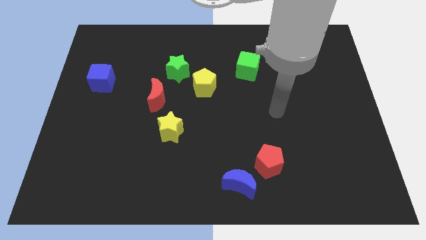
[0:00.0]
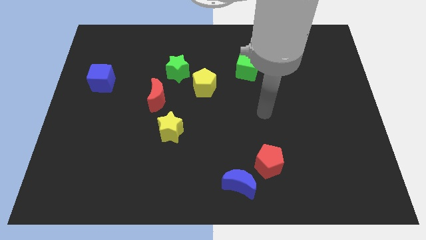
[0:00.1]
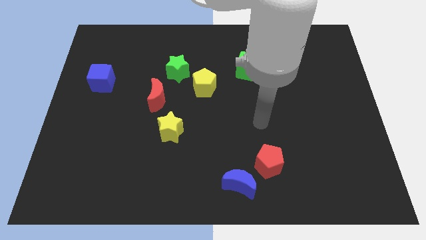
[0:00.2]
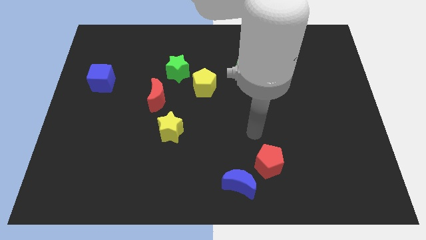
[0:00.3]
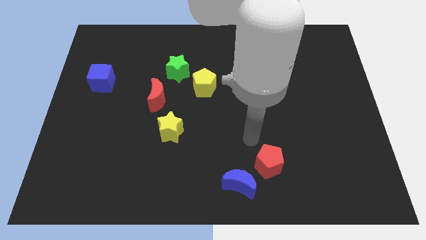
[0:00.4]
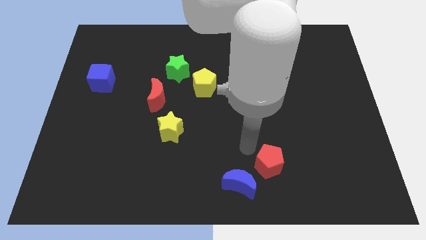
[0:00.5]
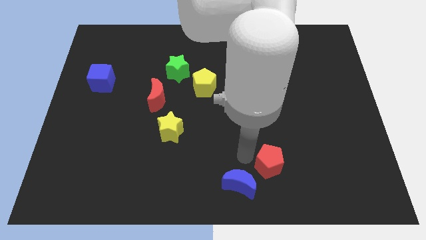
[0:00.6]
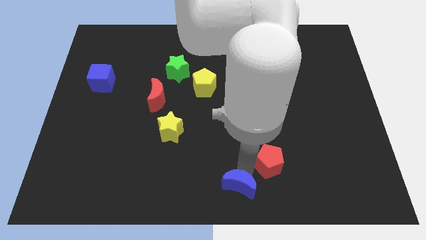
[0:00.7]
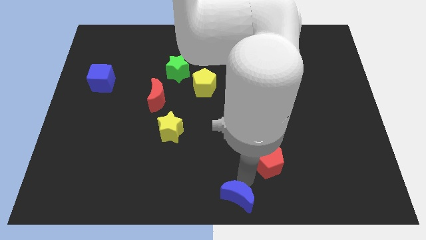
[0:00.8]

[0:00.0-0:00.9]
move the red pentagon away from the blue moon

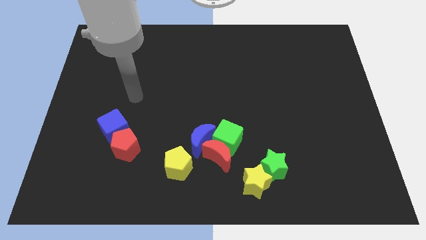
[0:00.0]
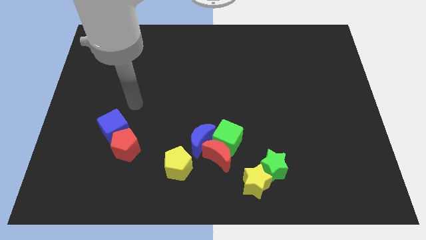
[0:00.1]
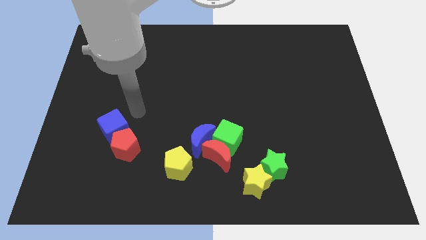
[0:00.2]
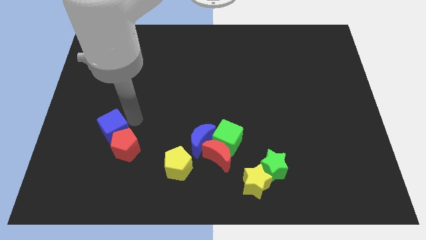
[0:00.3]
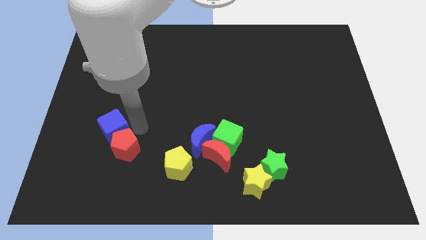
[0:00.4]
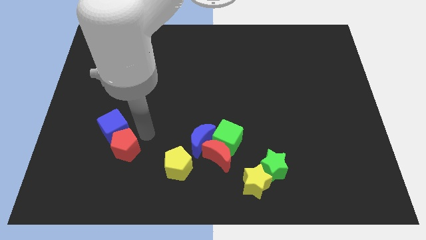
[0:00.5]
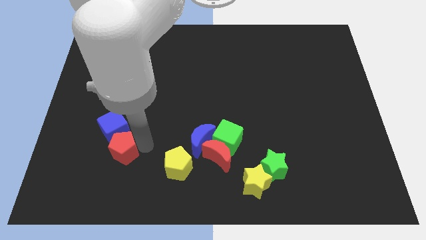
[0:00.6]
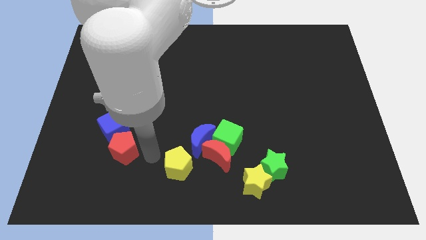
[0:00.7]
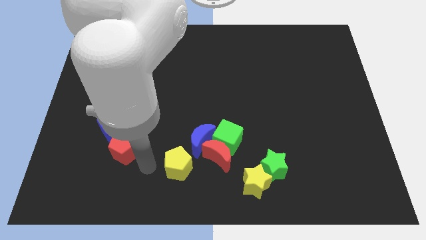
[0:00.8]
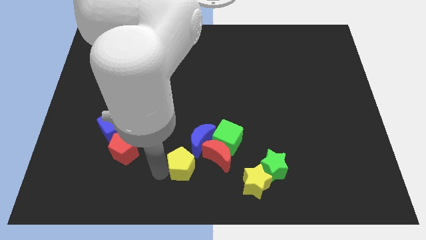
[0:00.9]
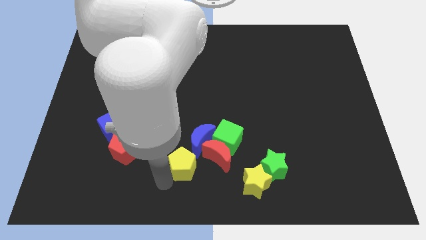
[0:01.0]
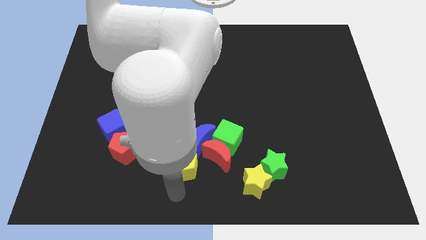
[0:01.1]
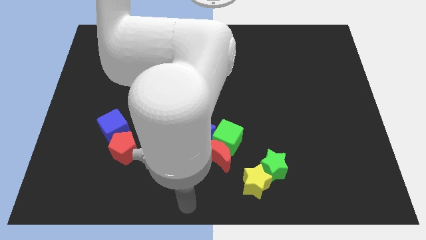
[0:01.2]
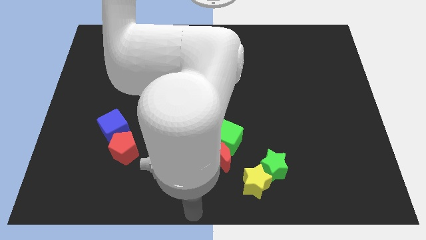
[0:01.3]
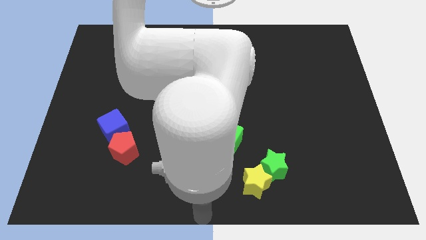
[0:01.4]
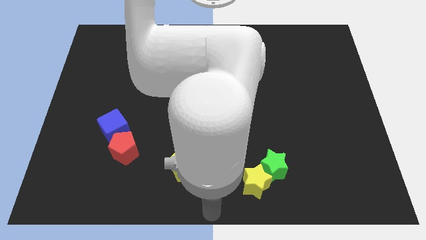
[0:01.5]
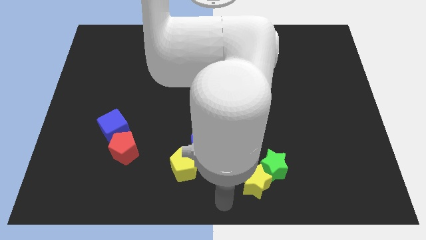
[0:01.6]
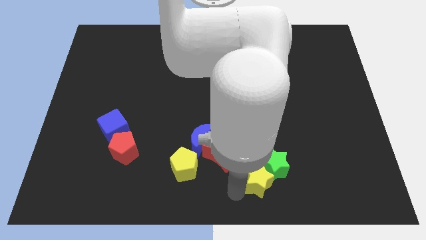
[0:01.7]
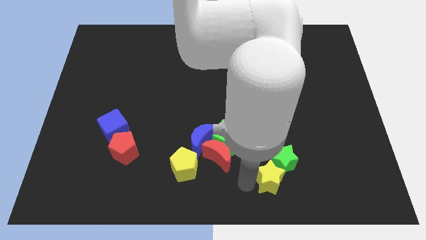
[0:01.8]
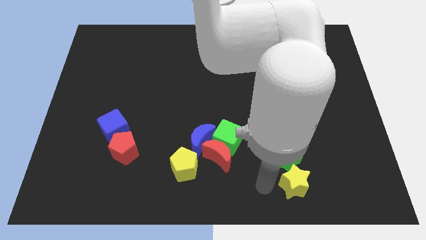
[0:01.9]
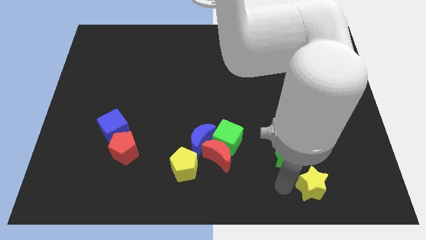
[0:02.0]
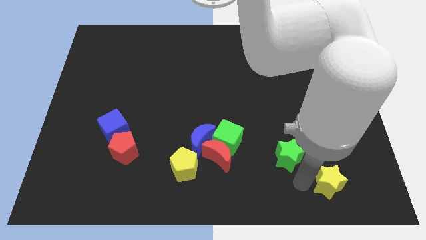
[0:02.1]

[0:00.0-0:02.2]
pull the green star apart from the yellow star

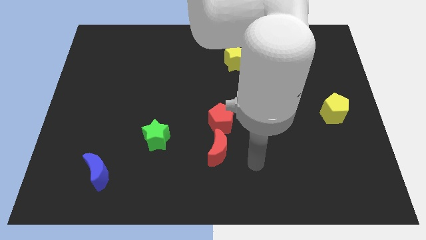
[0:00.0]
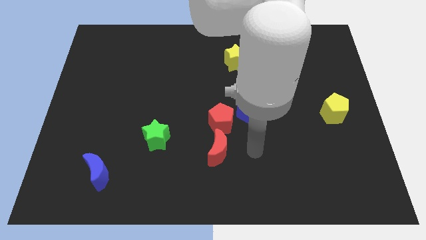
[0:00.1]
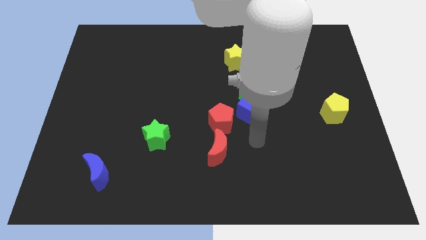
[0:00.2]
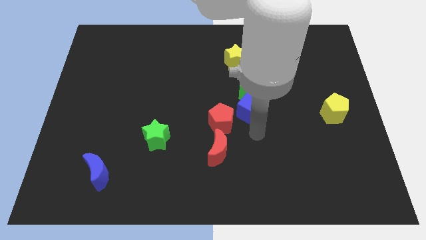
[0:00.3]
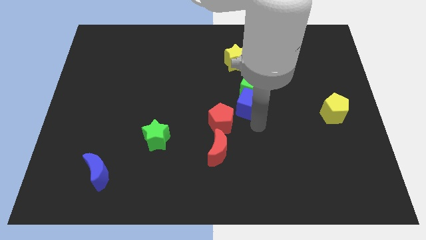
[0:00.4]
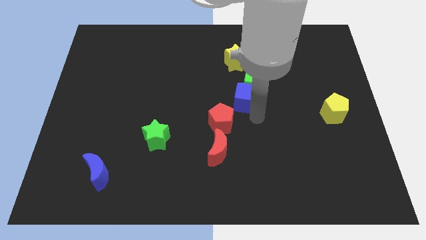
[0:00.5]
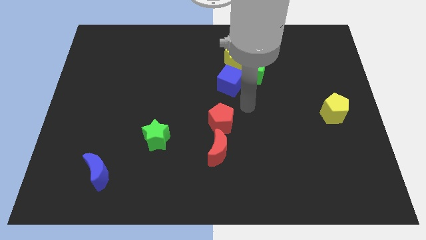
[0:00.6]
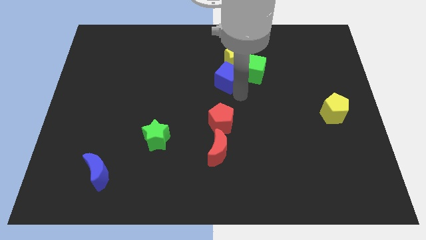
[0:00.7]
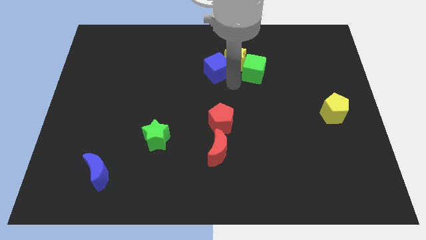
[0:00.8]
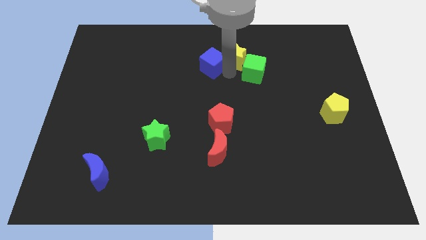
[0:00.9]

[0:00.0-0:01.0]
move the green cube away from the blue cube

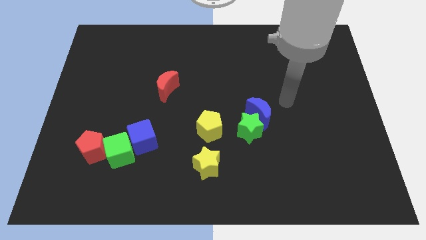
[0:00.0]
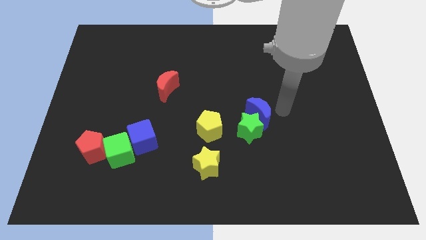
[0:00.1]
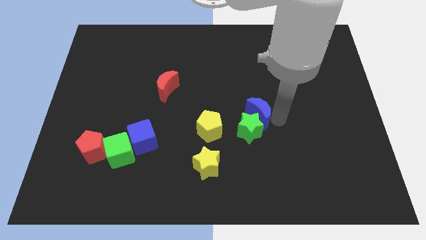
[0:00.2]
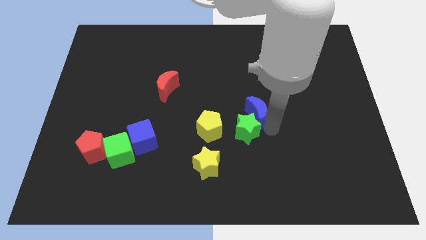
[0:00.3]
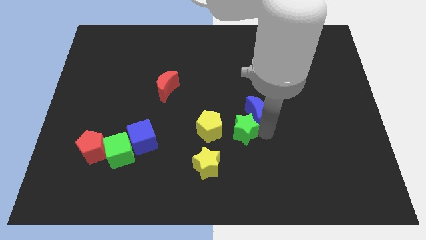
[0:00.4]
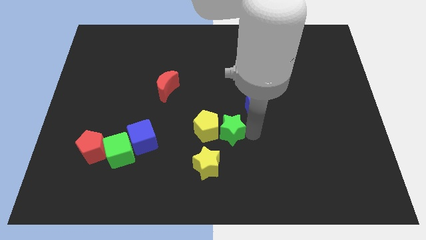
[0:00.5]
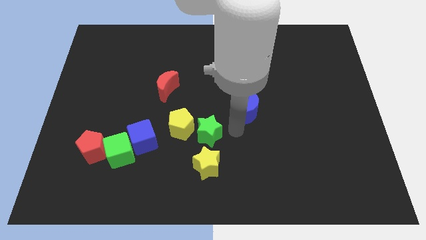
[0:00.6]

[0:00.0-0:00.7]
pull the blue moon apart from the green star

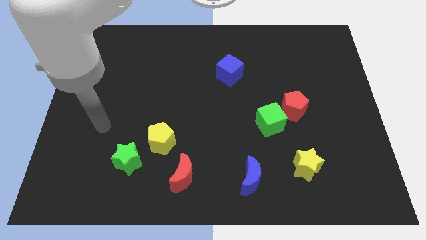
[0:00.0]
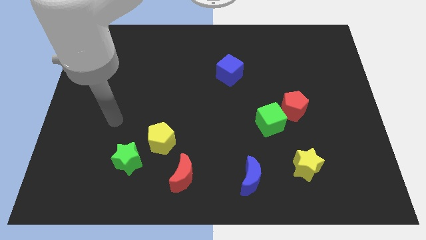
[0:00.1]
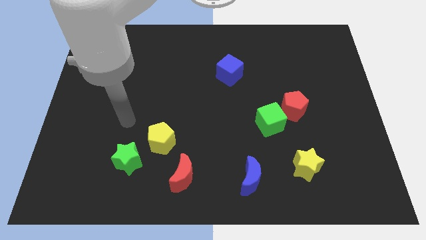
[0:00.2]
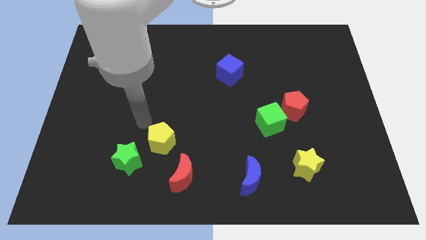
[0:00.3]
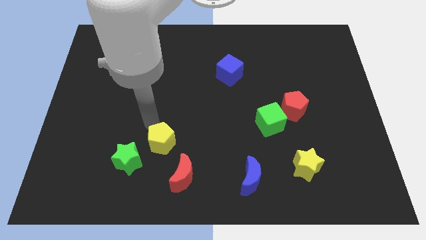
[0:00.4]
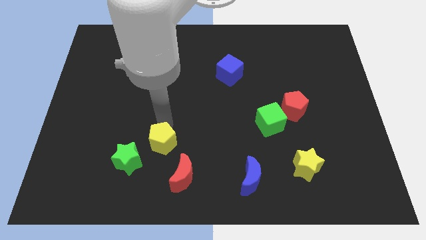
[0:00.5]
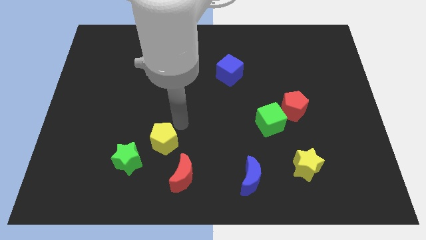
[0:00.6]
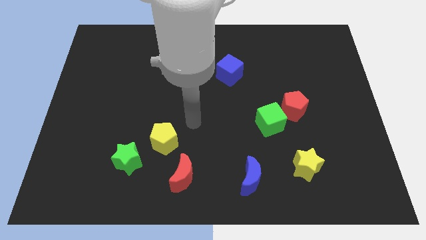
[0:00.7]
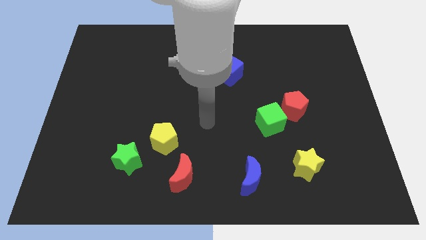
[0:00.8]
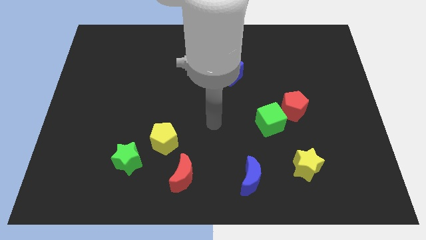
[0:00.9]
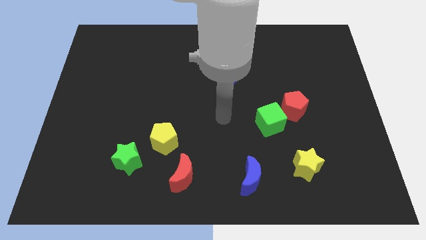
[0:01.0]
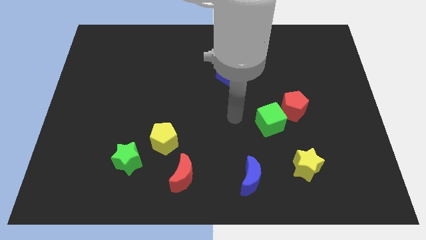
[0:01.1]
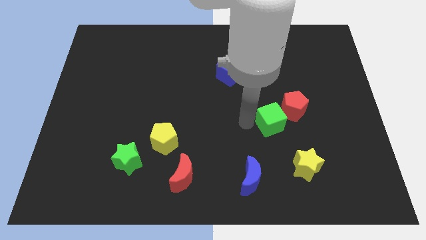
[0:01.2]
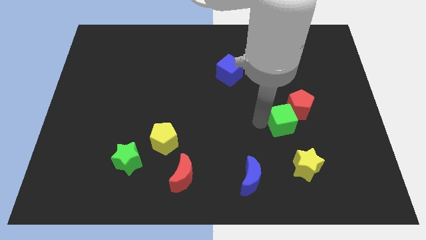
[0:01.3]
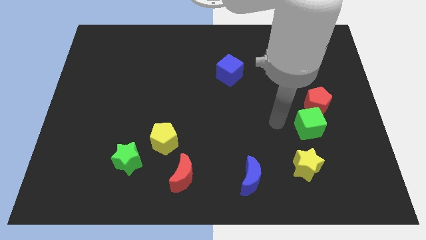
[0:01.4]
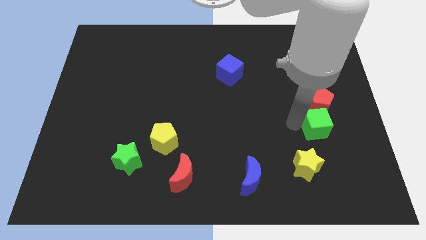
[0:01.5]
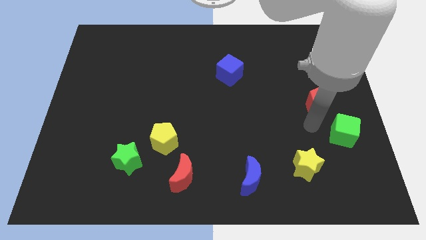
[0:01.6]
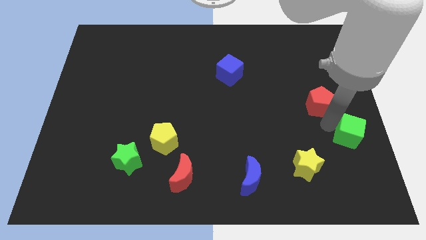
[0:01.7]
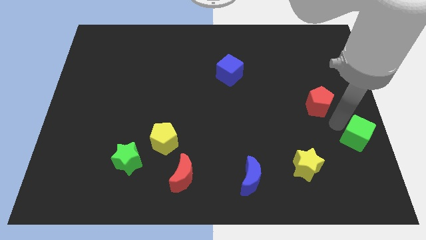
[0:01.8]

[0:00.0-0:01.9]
separate the red pentagon from the green cube

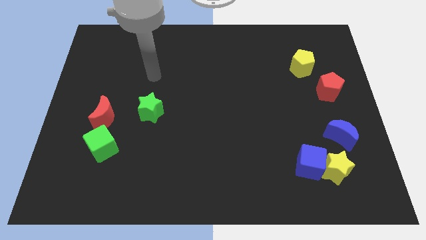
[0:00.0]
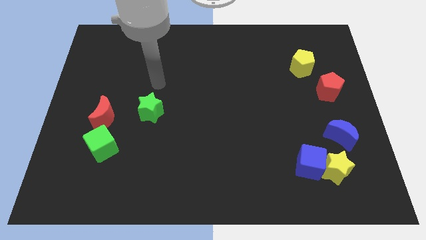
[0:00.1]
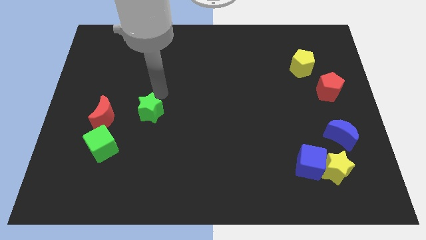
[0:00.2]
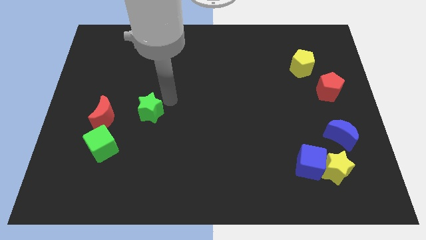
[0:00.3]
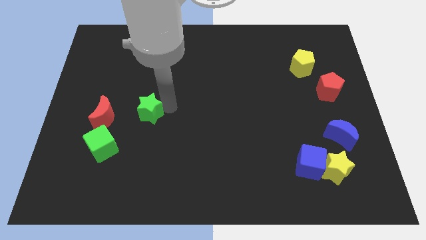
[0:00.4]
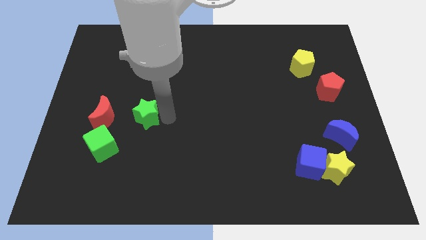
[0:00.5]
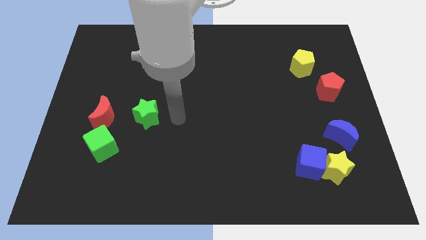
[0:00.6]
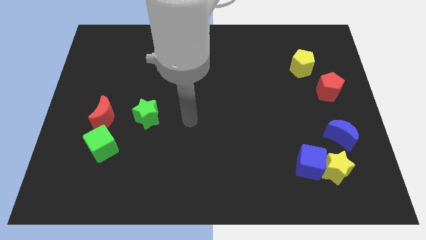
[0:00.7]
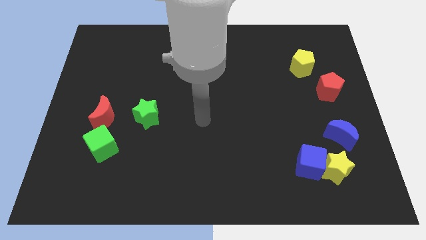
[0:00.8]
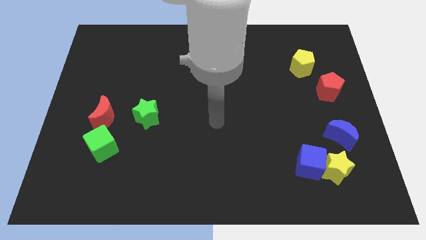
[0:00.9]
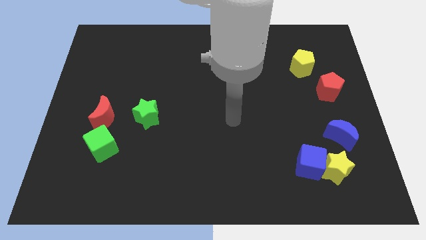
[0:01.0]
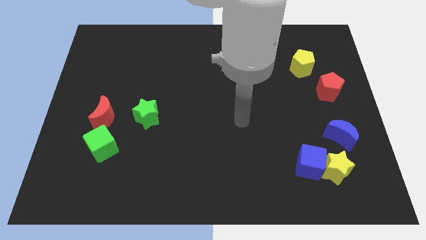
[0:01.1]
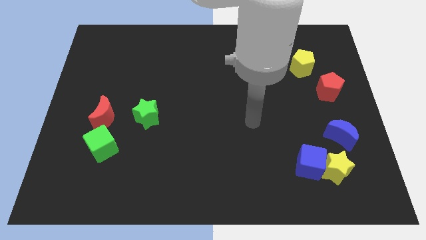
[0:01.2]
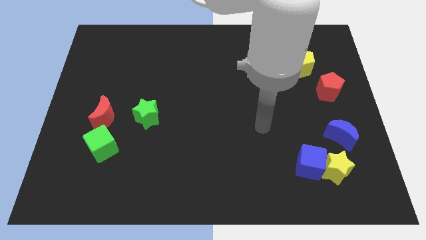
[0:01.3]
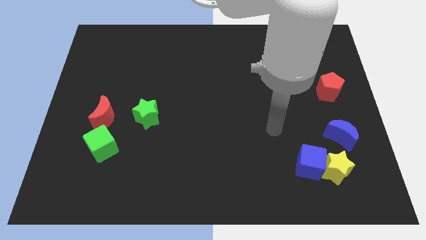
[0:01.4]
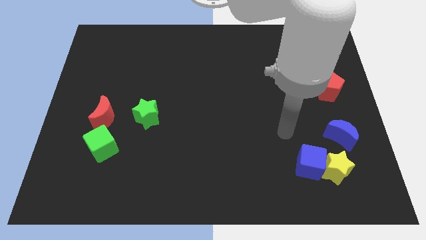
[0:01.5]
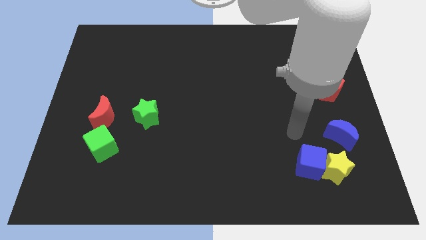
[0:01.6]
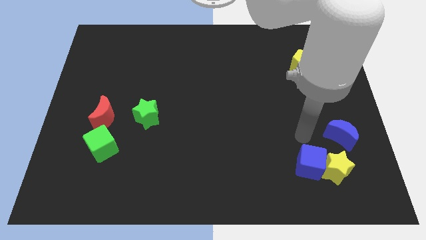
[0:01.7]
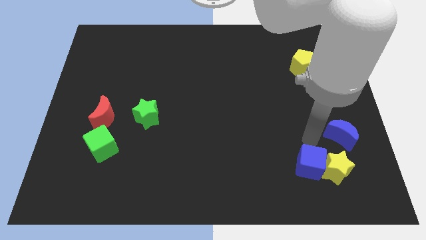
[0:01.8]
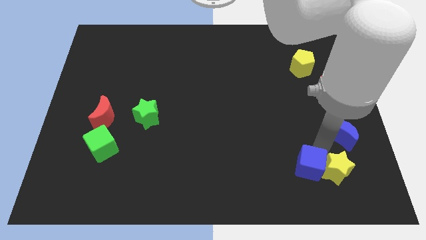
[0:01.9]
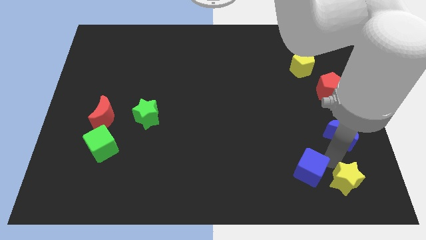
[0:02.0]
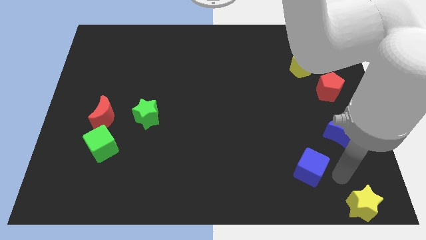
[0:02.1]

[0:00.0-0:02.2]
move the blue cube away from the yellow star

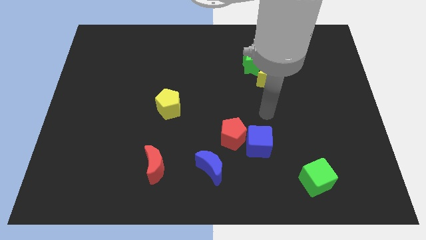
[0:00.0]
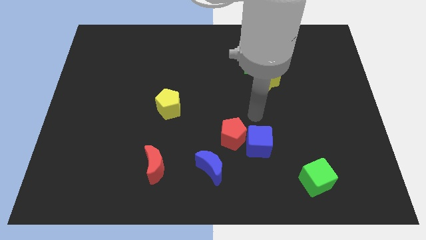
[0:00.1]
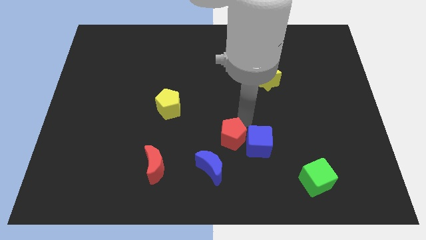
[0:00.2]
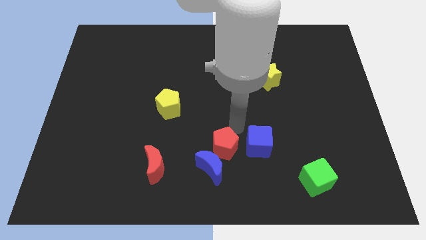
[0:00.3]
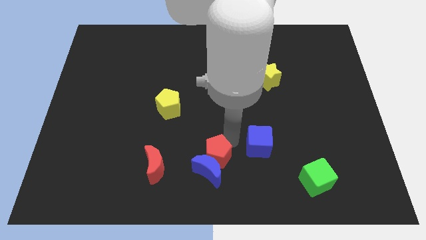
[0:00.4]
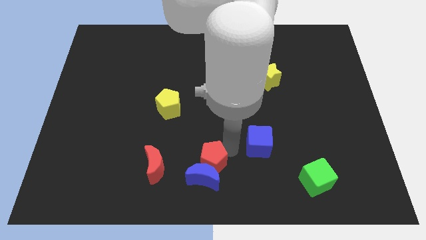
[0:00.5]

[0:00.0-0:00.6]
move the blue cube away from the red pentagon
